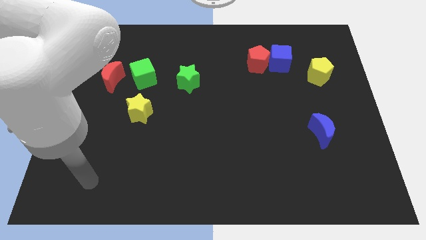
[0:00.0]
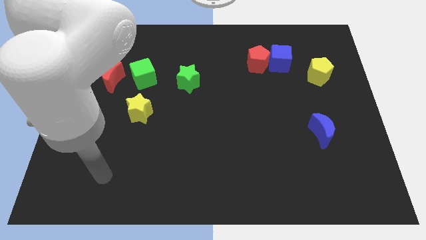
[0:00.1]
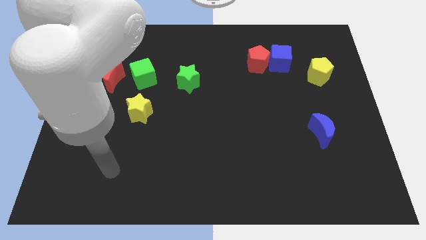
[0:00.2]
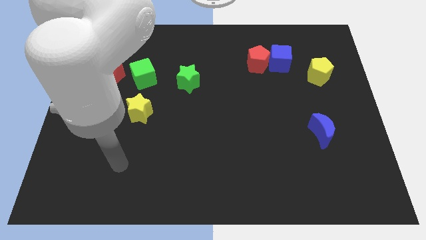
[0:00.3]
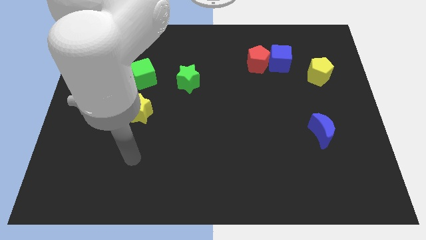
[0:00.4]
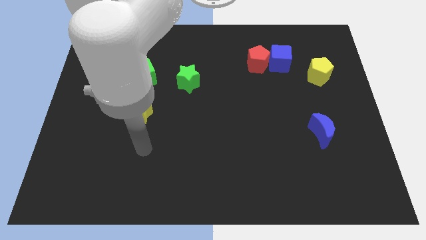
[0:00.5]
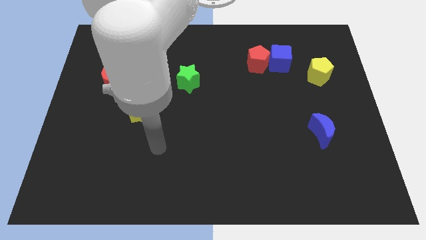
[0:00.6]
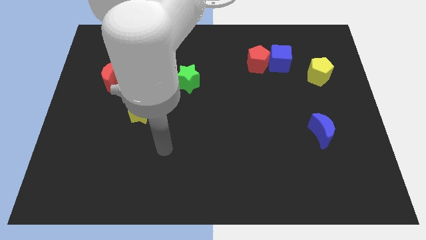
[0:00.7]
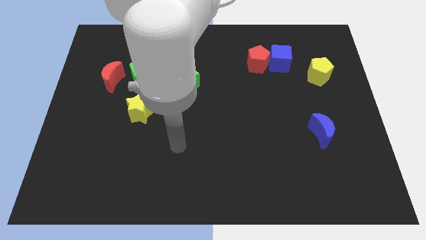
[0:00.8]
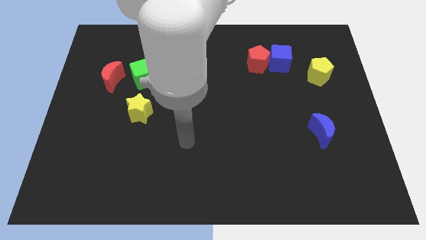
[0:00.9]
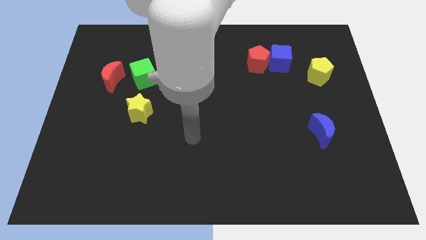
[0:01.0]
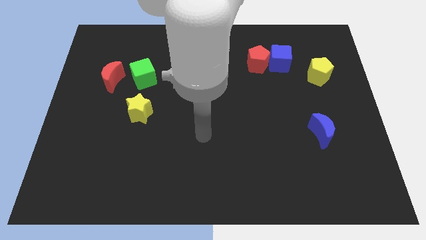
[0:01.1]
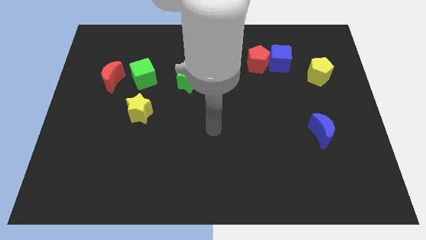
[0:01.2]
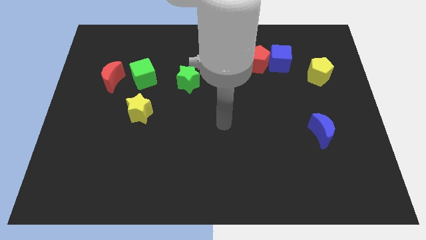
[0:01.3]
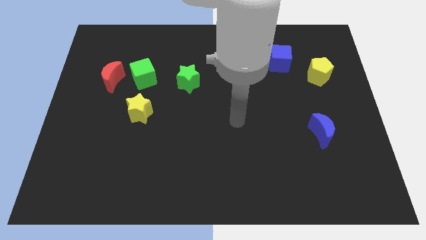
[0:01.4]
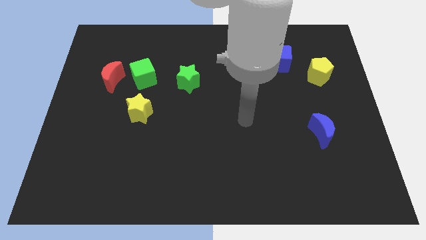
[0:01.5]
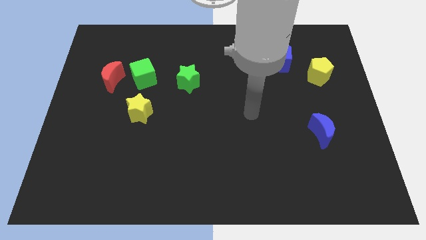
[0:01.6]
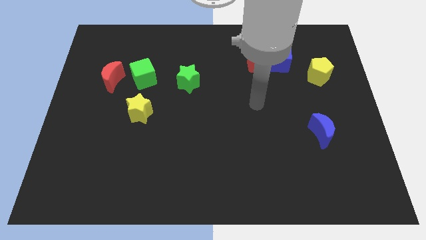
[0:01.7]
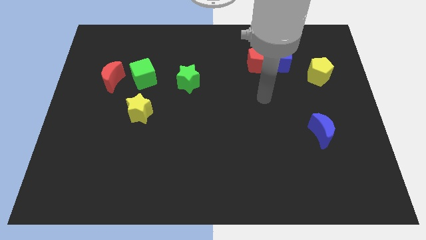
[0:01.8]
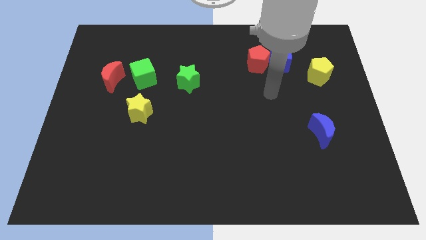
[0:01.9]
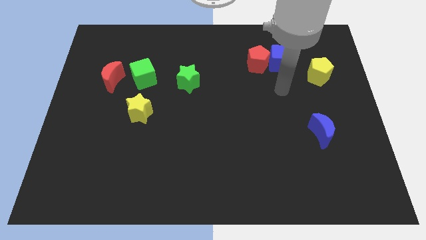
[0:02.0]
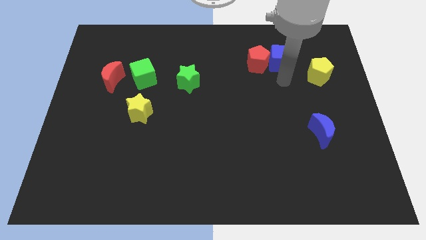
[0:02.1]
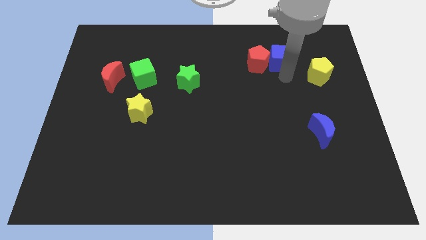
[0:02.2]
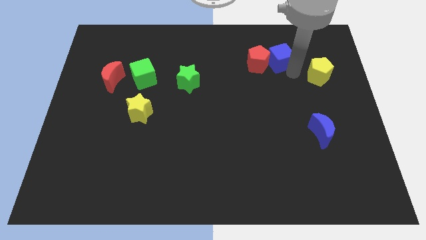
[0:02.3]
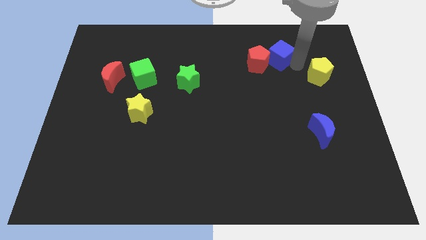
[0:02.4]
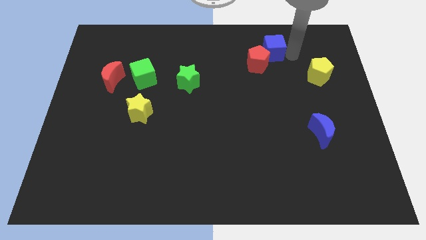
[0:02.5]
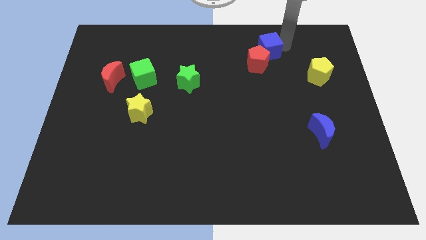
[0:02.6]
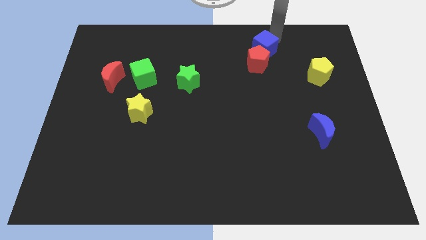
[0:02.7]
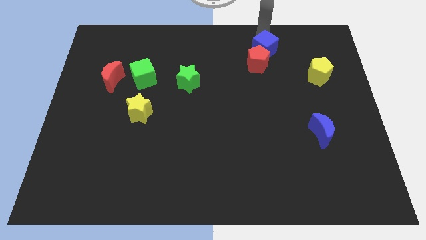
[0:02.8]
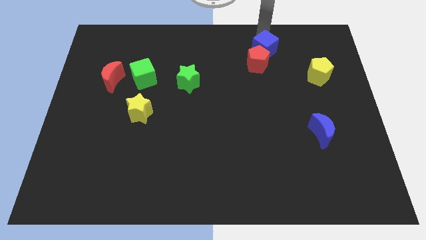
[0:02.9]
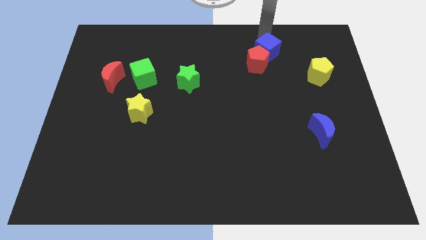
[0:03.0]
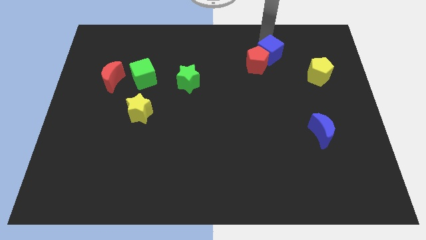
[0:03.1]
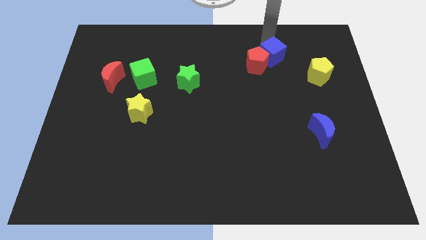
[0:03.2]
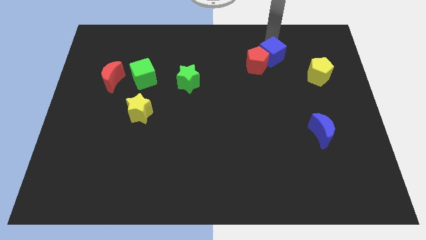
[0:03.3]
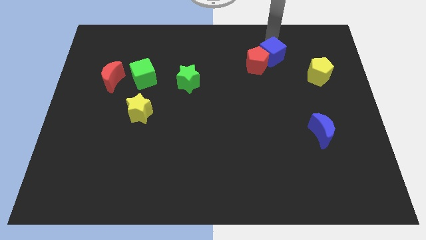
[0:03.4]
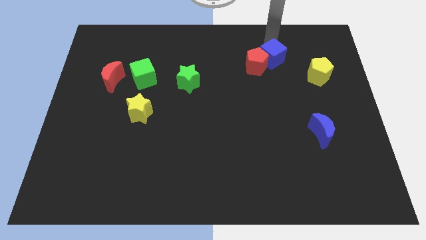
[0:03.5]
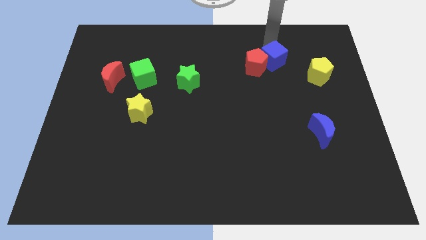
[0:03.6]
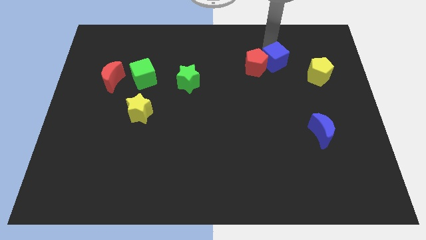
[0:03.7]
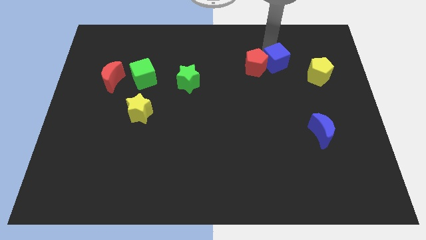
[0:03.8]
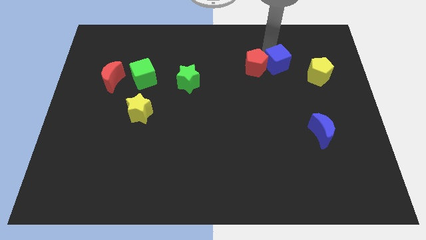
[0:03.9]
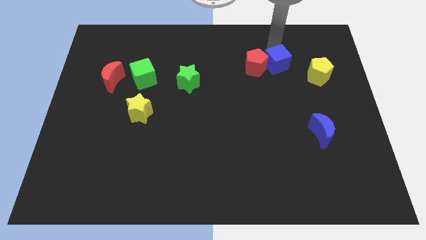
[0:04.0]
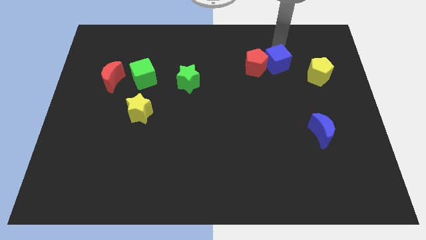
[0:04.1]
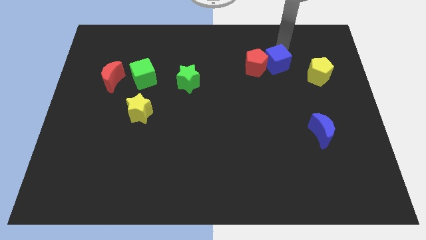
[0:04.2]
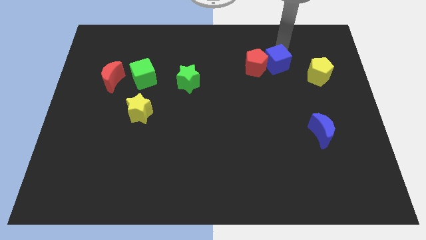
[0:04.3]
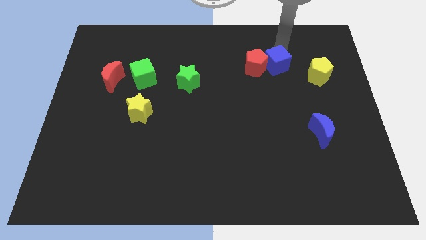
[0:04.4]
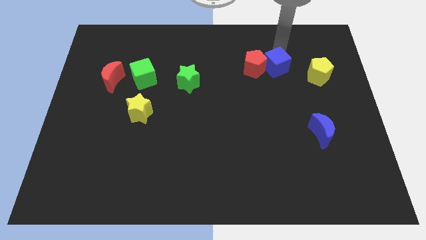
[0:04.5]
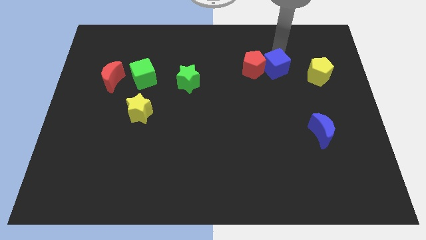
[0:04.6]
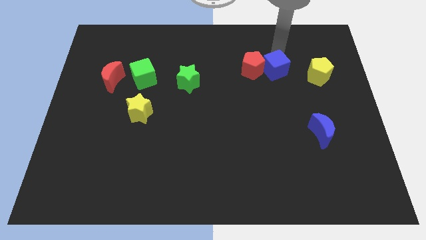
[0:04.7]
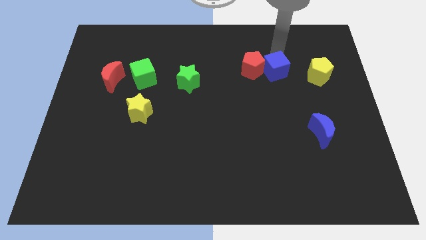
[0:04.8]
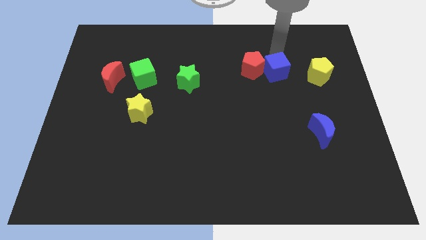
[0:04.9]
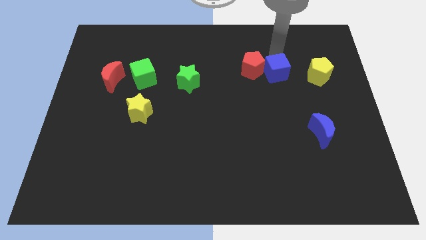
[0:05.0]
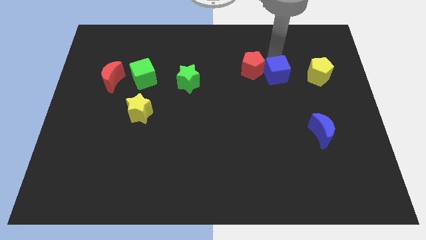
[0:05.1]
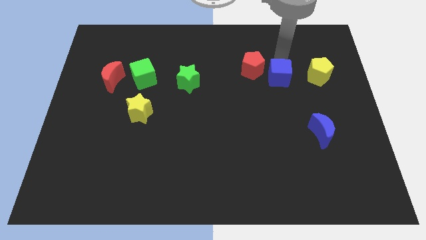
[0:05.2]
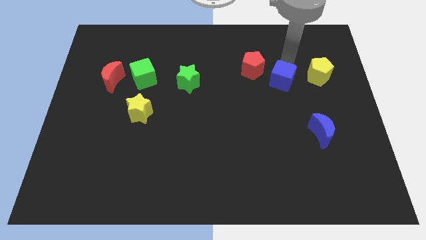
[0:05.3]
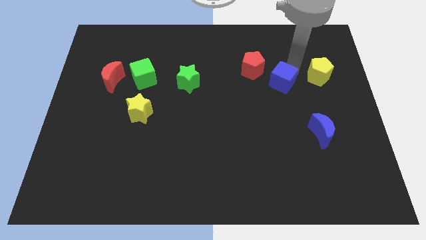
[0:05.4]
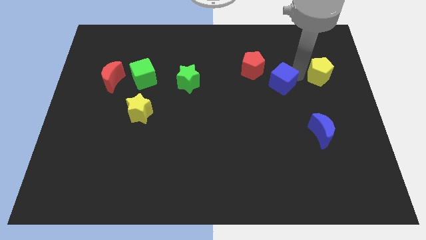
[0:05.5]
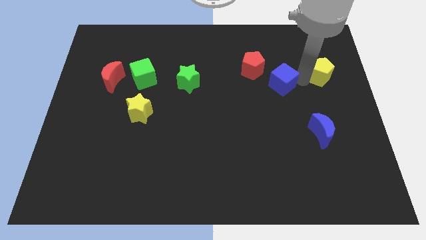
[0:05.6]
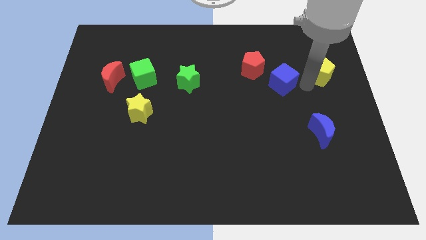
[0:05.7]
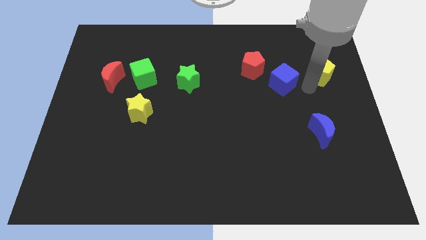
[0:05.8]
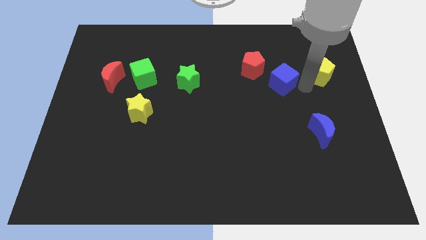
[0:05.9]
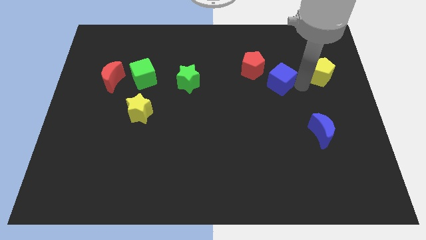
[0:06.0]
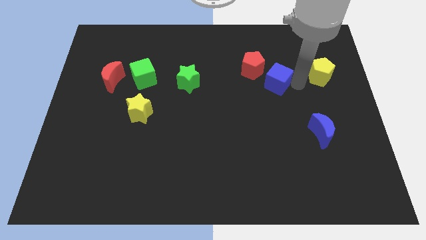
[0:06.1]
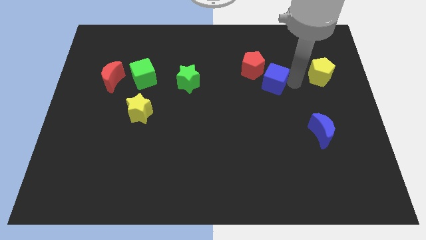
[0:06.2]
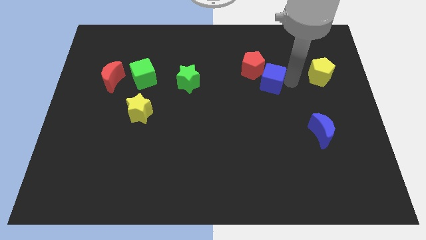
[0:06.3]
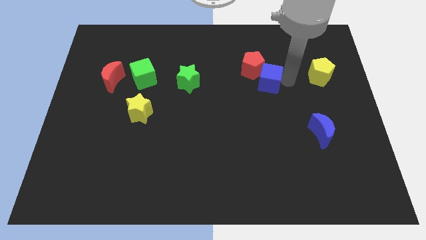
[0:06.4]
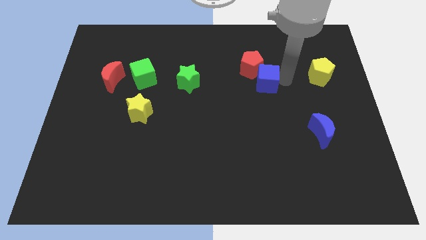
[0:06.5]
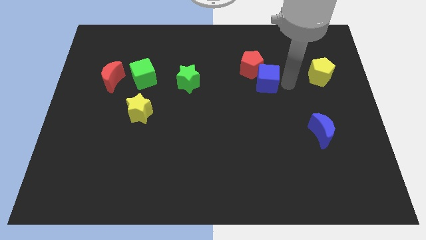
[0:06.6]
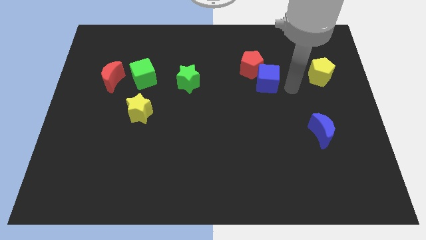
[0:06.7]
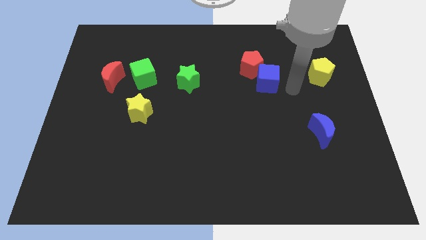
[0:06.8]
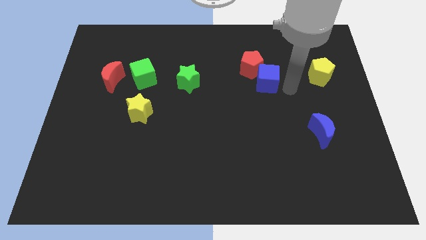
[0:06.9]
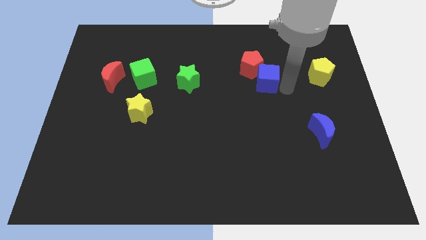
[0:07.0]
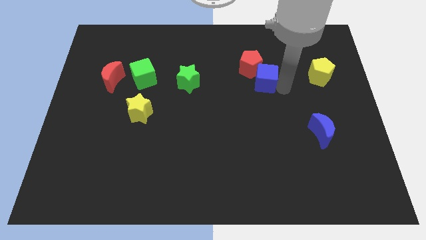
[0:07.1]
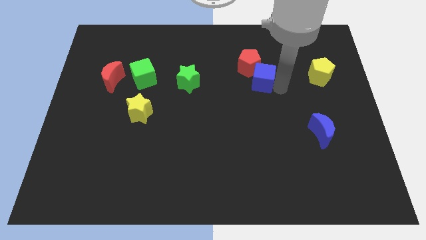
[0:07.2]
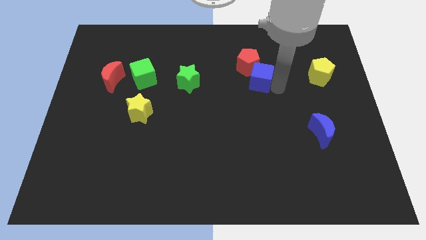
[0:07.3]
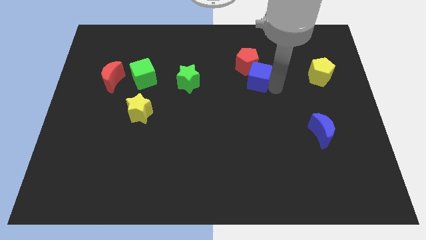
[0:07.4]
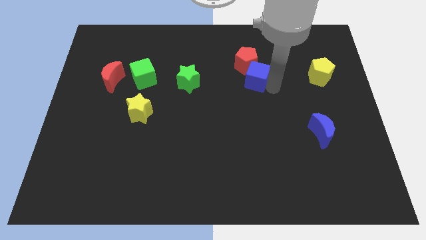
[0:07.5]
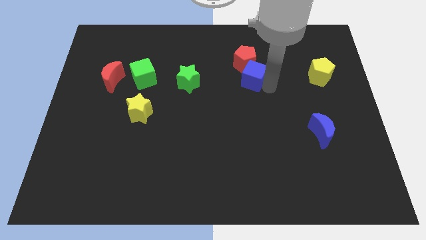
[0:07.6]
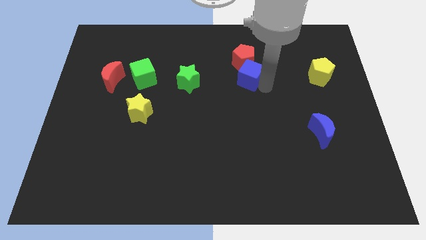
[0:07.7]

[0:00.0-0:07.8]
slightly slide the blue cube to the left

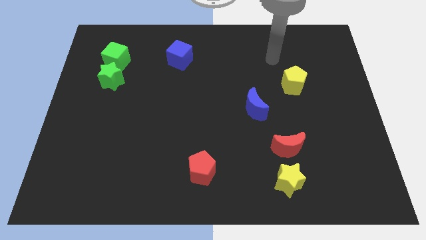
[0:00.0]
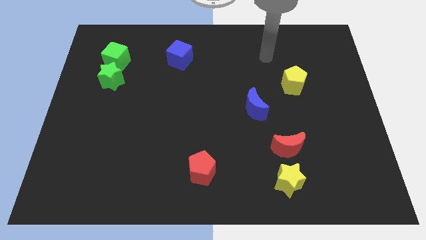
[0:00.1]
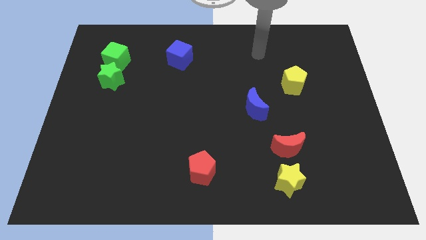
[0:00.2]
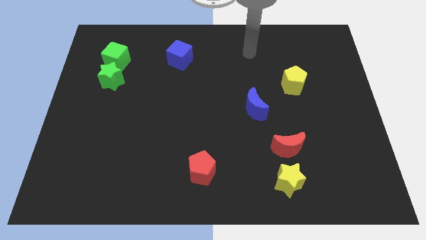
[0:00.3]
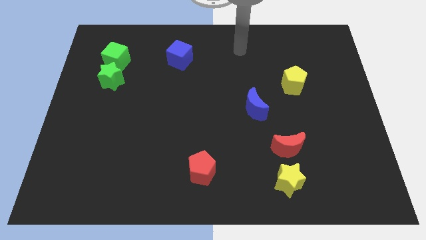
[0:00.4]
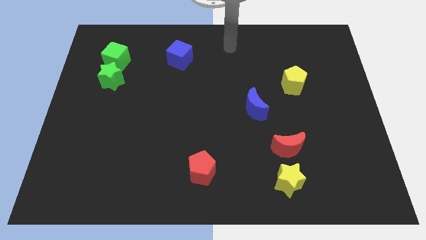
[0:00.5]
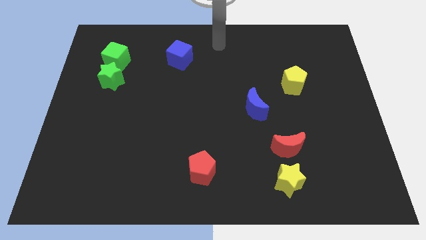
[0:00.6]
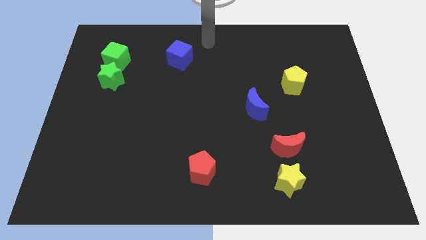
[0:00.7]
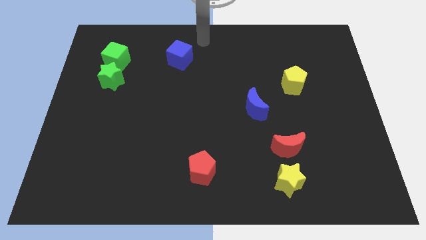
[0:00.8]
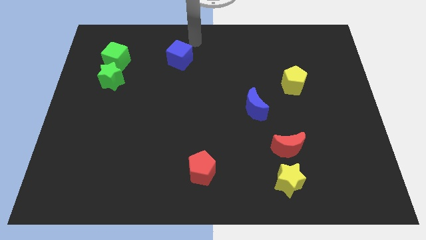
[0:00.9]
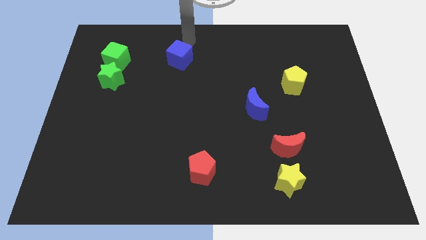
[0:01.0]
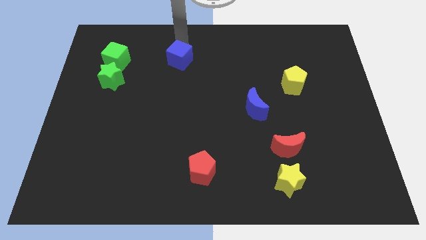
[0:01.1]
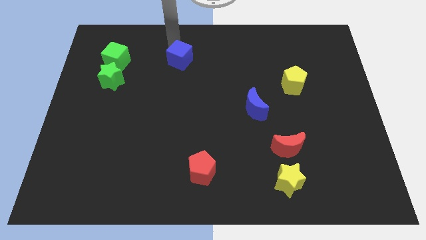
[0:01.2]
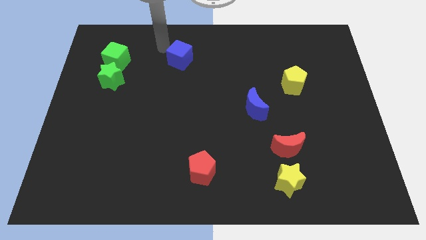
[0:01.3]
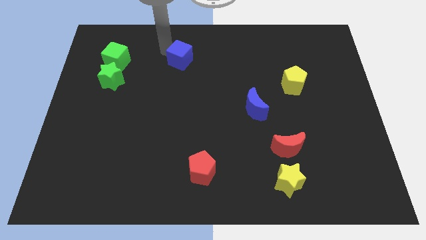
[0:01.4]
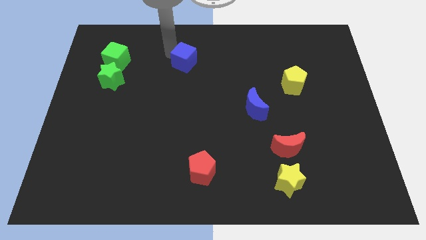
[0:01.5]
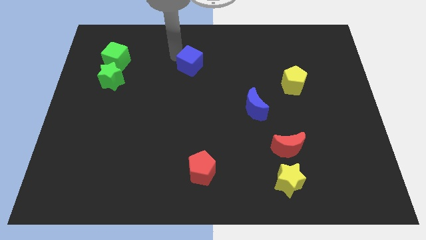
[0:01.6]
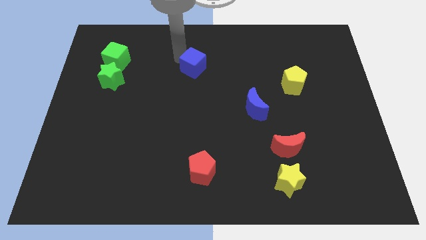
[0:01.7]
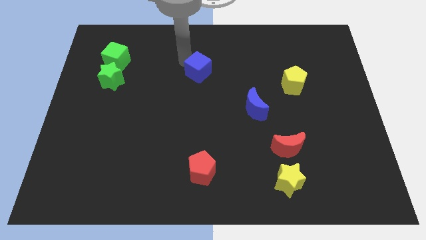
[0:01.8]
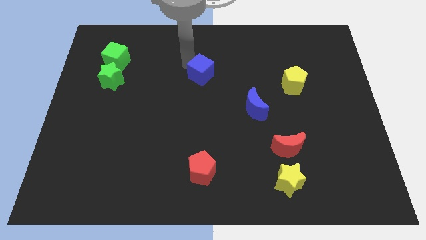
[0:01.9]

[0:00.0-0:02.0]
slightly push the blue cube downwards and to the right
